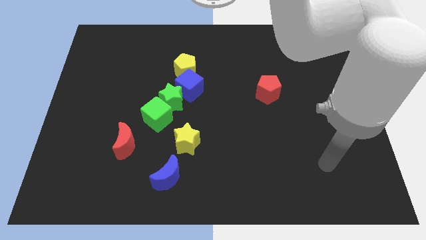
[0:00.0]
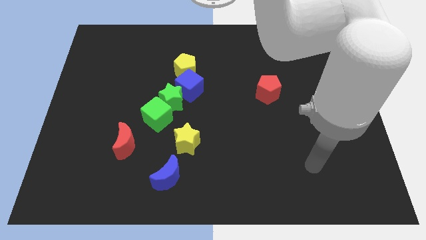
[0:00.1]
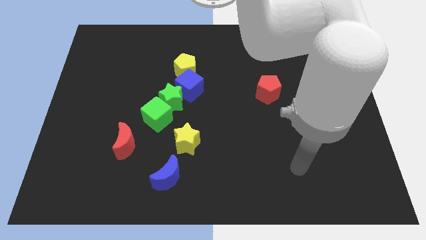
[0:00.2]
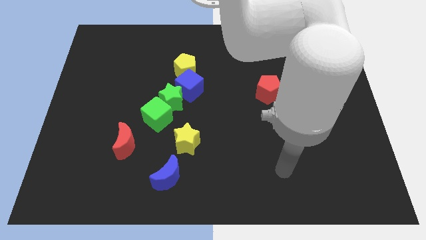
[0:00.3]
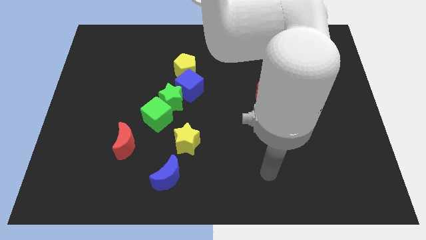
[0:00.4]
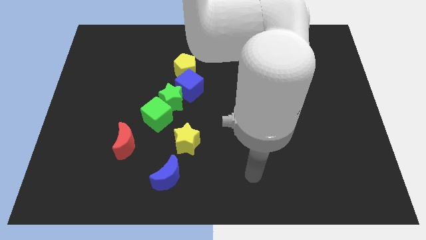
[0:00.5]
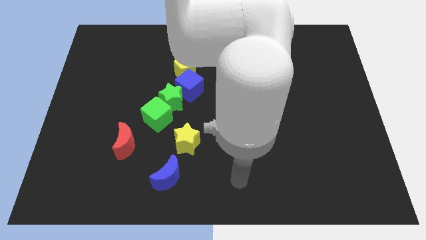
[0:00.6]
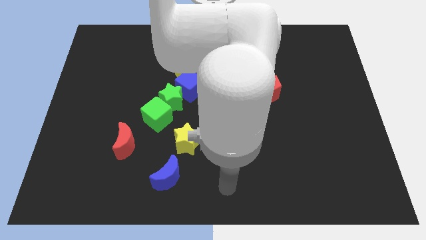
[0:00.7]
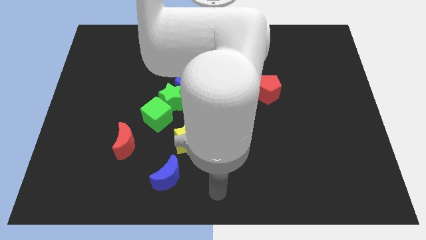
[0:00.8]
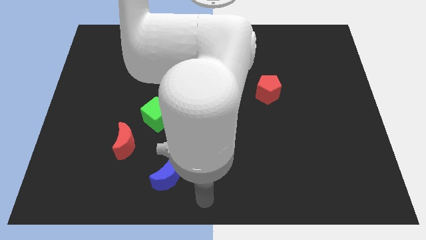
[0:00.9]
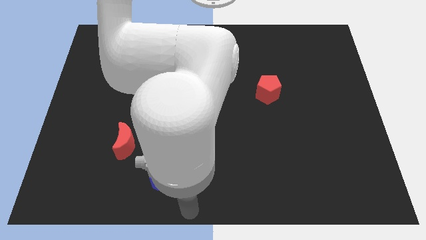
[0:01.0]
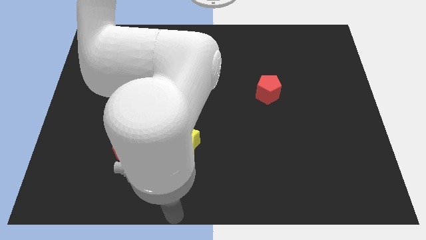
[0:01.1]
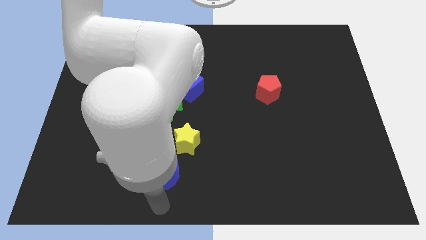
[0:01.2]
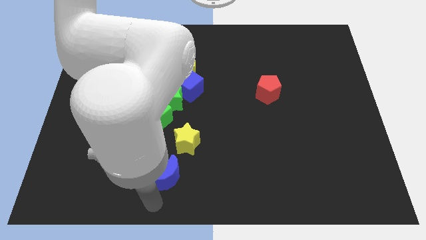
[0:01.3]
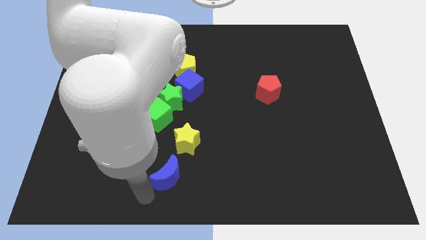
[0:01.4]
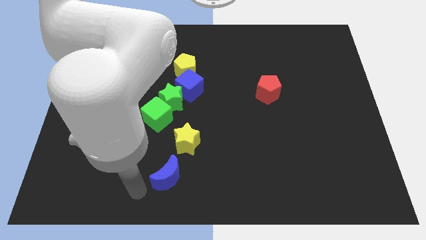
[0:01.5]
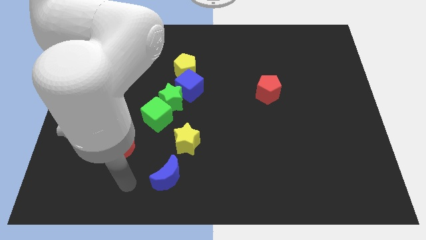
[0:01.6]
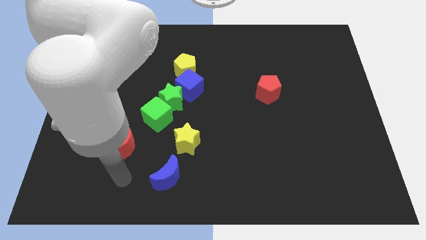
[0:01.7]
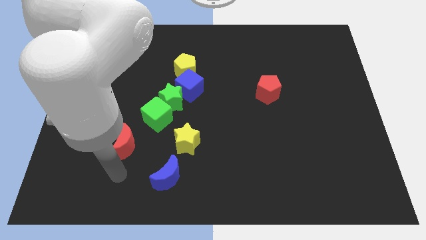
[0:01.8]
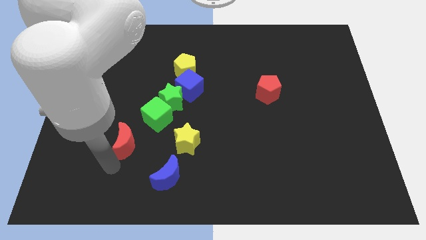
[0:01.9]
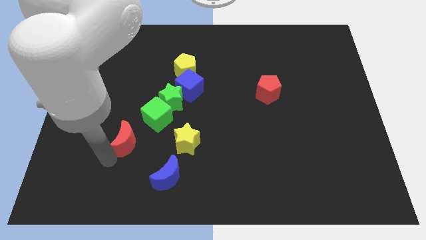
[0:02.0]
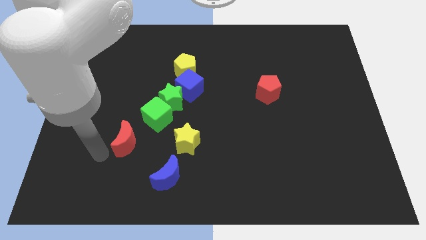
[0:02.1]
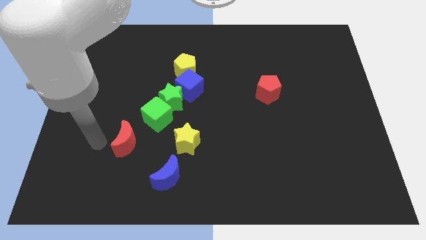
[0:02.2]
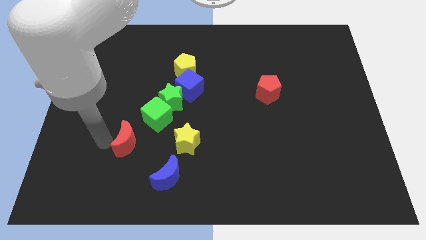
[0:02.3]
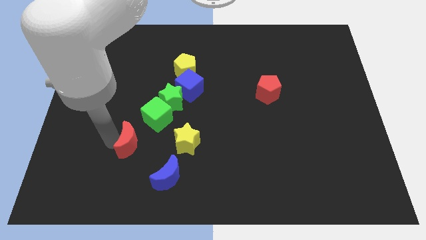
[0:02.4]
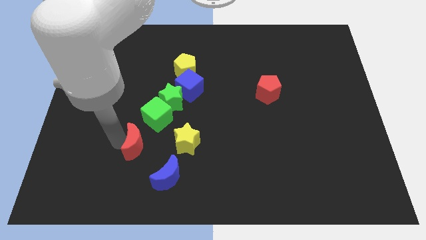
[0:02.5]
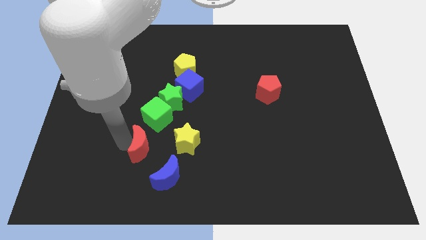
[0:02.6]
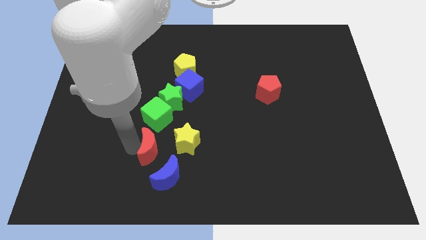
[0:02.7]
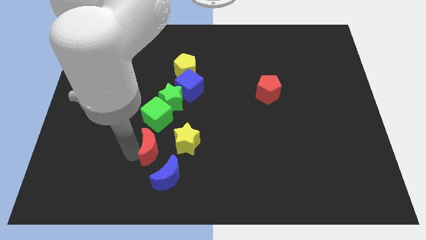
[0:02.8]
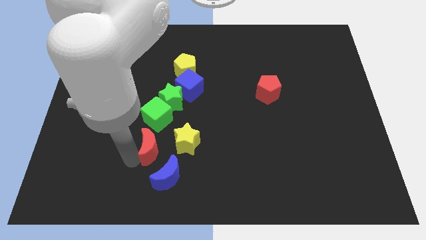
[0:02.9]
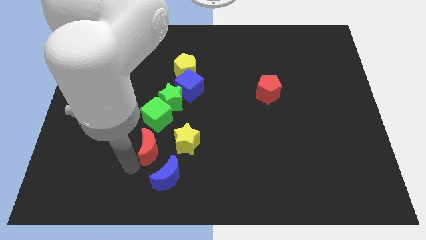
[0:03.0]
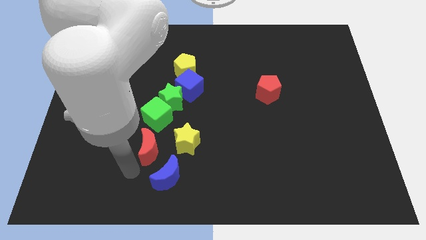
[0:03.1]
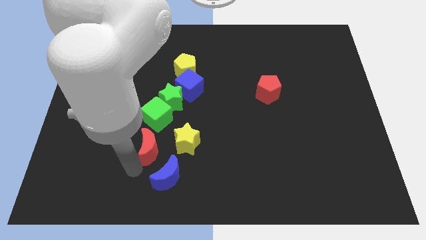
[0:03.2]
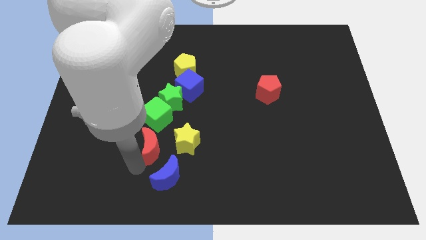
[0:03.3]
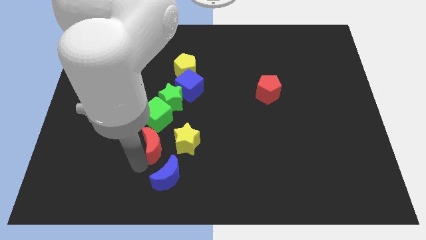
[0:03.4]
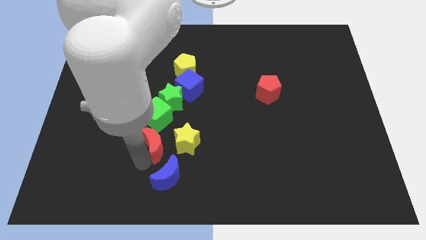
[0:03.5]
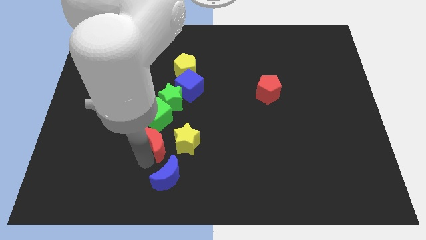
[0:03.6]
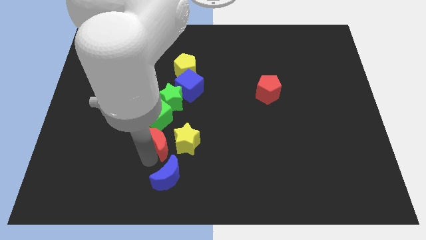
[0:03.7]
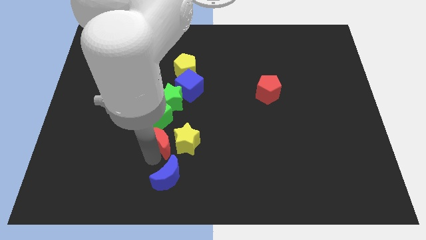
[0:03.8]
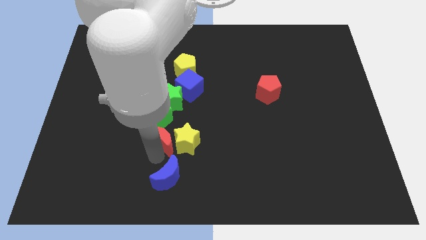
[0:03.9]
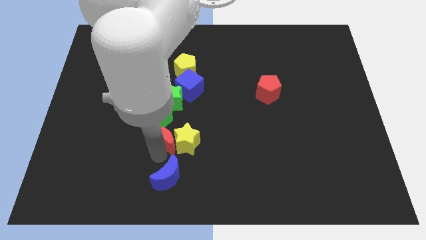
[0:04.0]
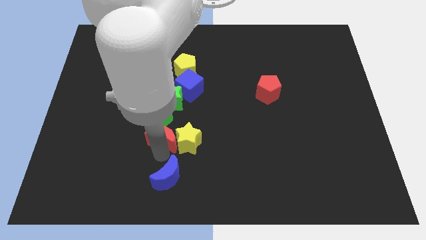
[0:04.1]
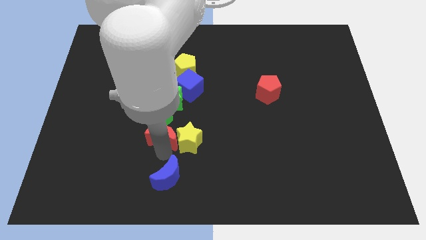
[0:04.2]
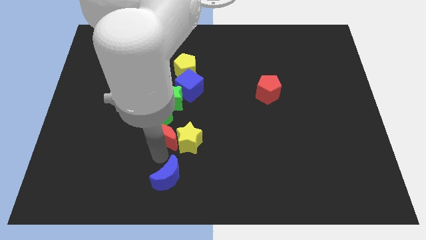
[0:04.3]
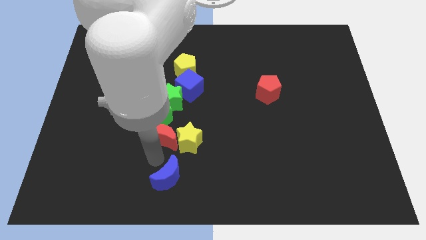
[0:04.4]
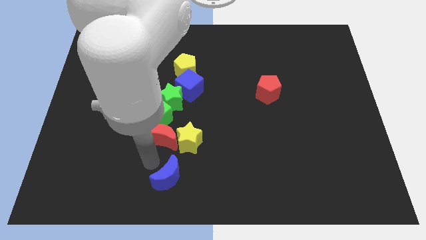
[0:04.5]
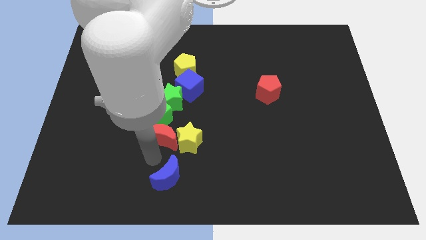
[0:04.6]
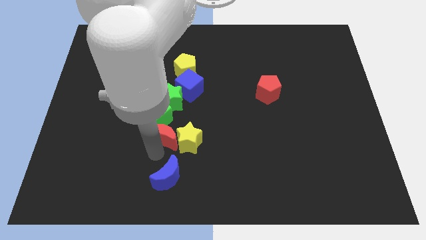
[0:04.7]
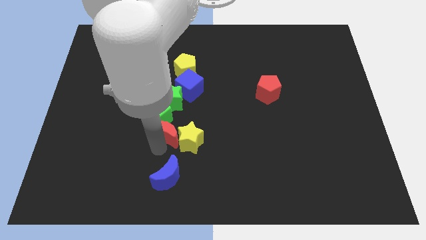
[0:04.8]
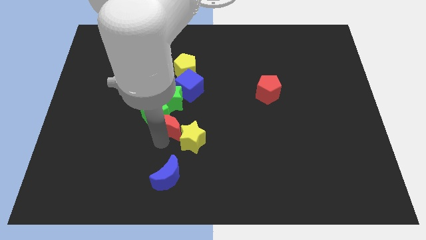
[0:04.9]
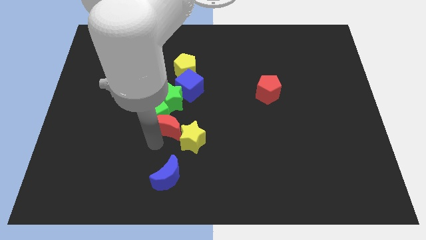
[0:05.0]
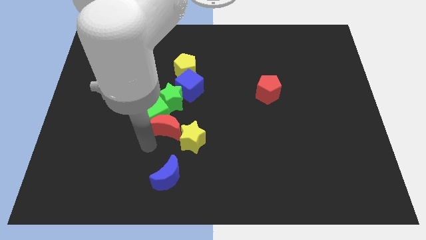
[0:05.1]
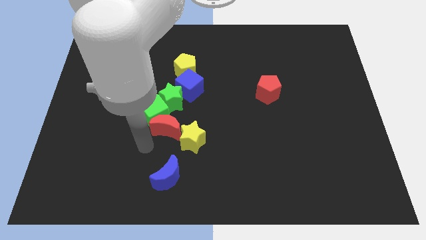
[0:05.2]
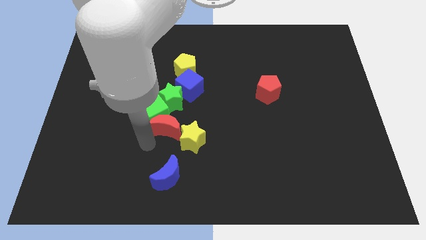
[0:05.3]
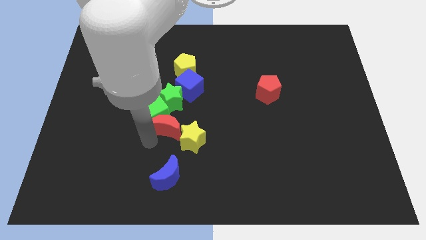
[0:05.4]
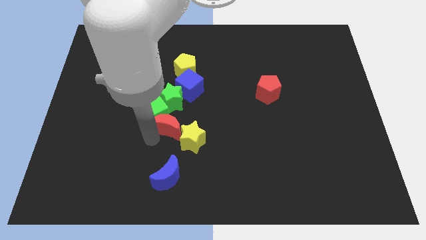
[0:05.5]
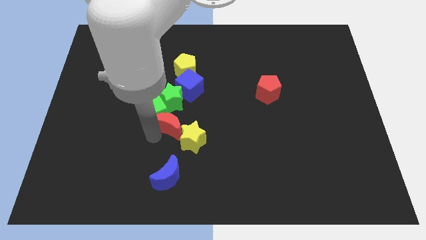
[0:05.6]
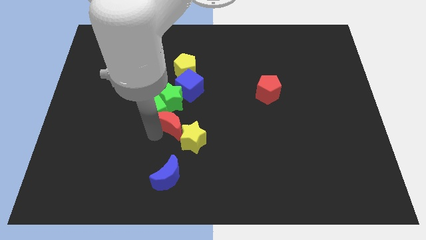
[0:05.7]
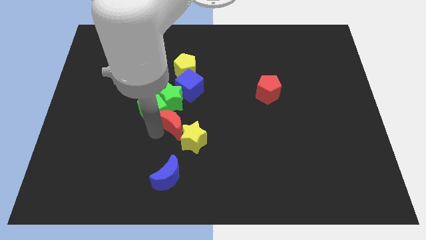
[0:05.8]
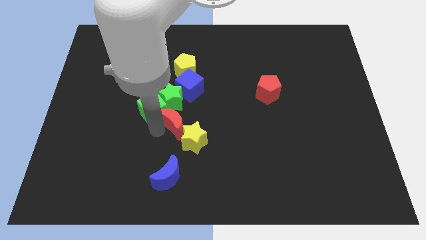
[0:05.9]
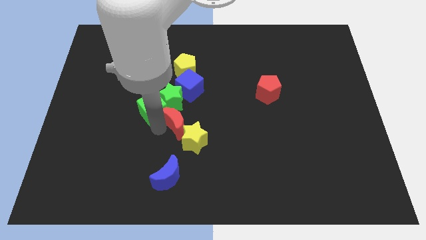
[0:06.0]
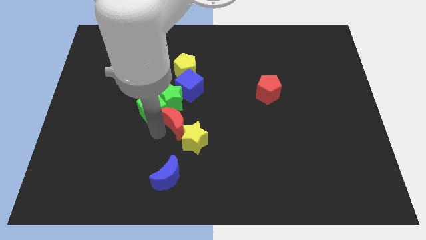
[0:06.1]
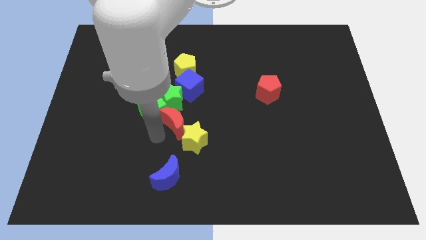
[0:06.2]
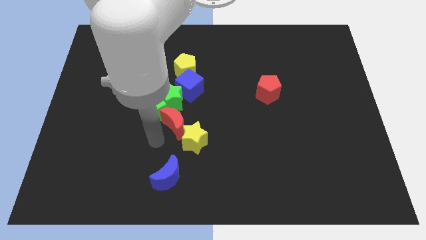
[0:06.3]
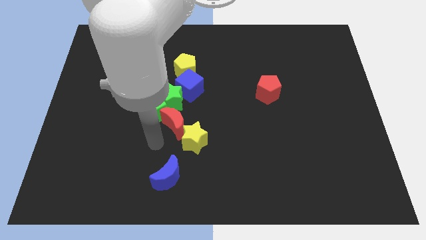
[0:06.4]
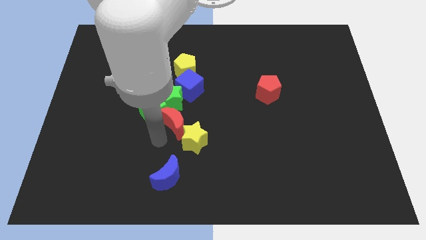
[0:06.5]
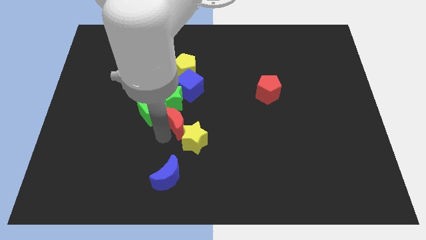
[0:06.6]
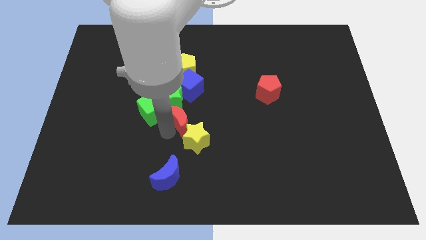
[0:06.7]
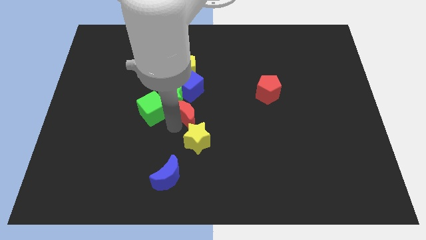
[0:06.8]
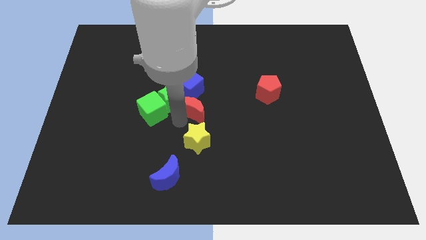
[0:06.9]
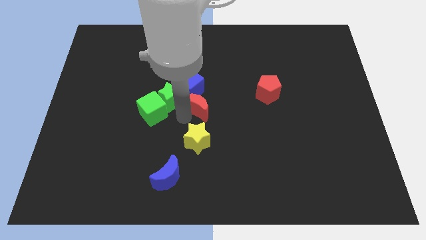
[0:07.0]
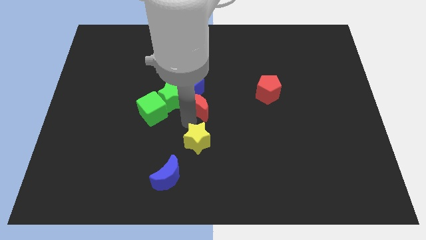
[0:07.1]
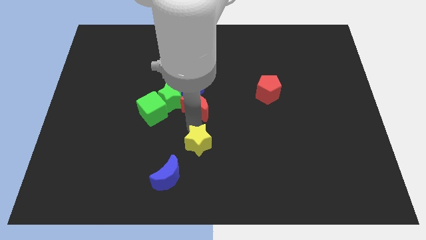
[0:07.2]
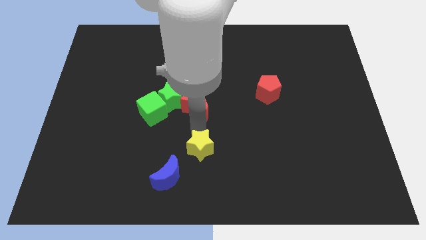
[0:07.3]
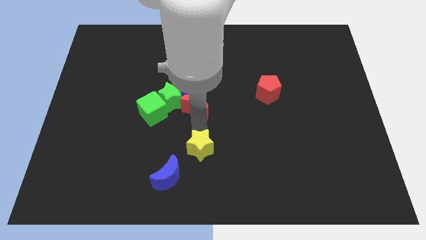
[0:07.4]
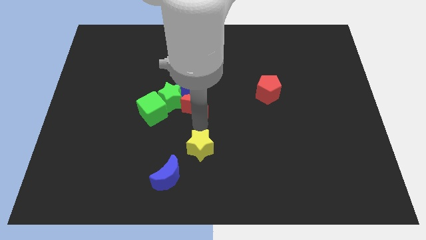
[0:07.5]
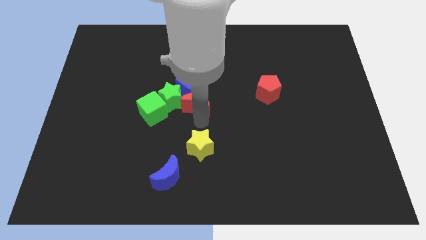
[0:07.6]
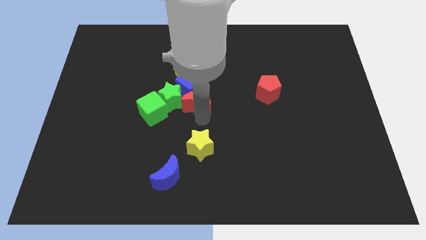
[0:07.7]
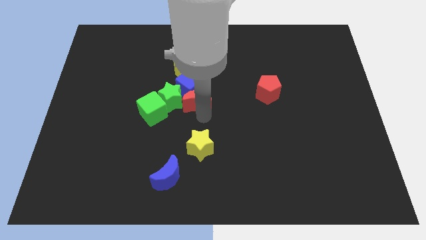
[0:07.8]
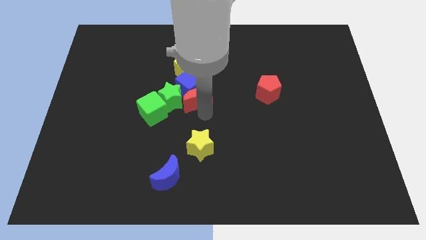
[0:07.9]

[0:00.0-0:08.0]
slide the red moon to the top right of the green star

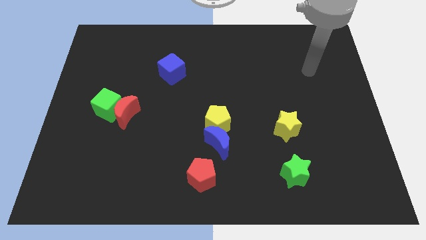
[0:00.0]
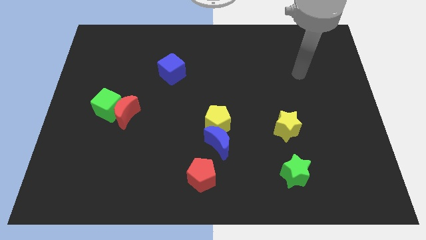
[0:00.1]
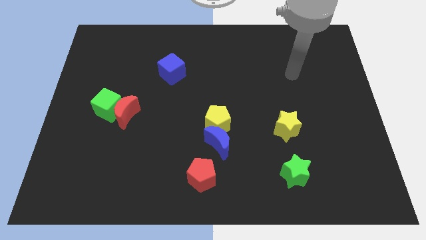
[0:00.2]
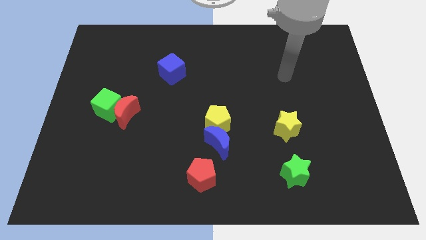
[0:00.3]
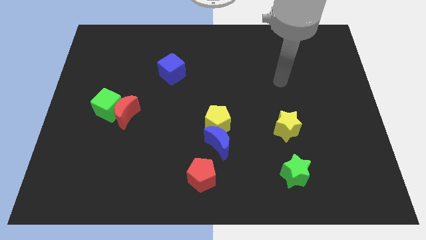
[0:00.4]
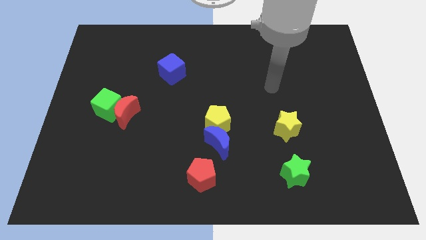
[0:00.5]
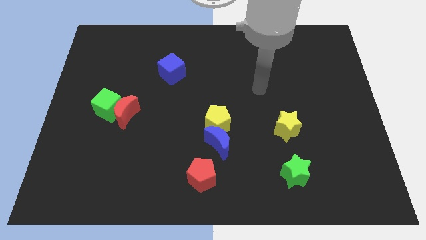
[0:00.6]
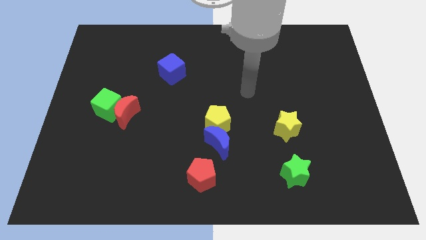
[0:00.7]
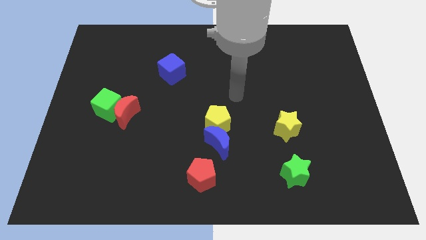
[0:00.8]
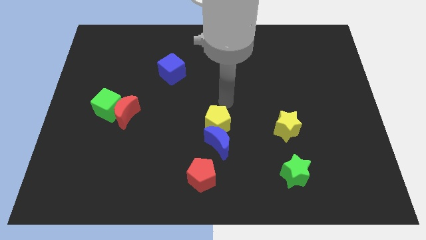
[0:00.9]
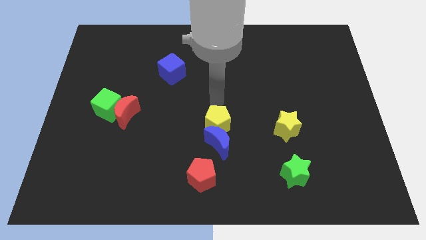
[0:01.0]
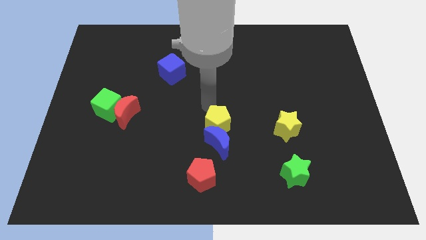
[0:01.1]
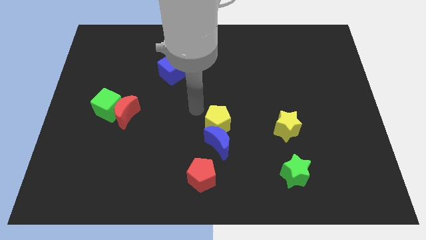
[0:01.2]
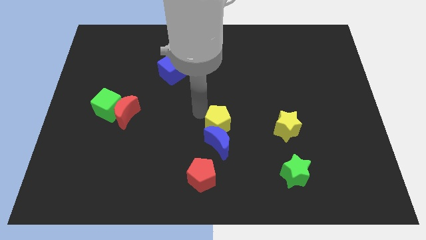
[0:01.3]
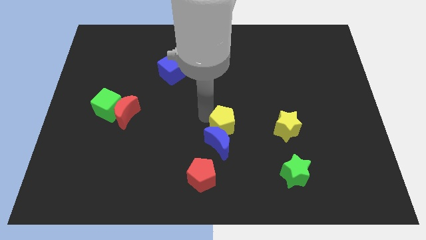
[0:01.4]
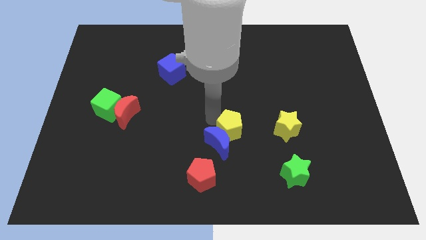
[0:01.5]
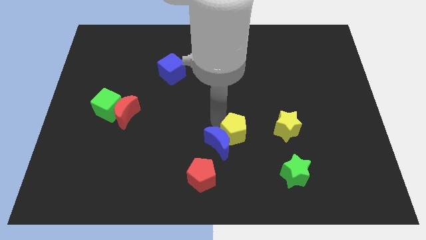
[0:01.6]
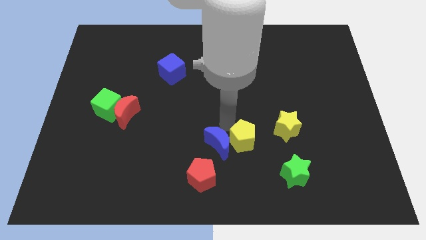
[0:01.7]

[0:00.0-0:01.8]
slide the yellow pentagon to the bottom right of the blue moon
